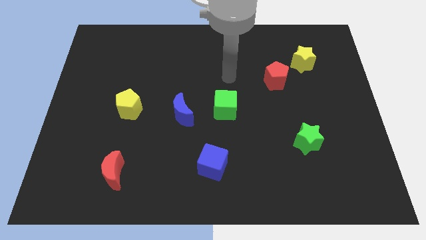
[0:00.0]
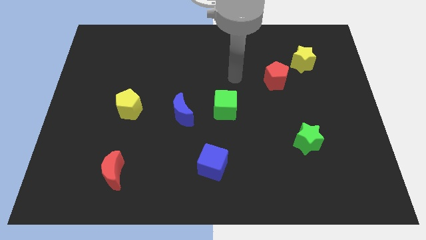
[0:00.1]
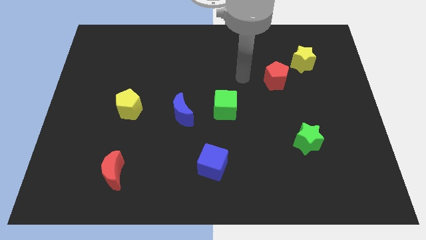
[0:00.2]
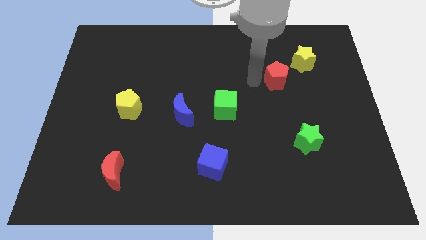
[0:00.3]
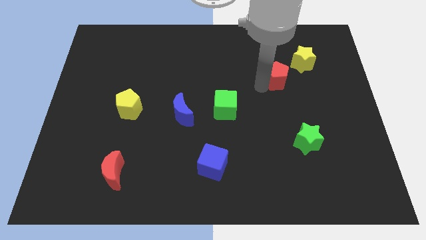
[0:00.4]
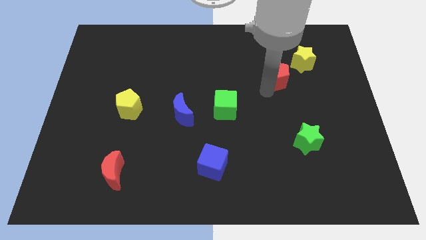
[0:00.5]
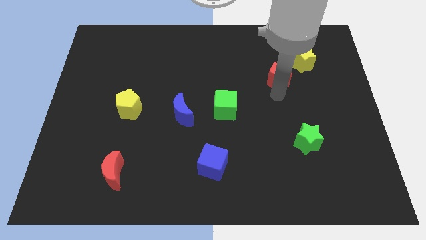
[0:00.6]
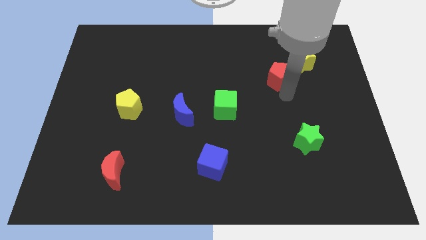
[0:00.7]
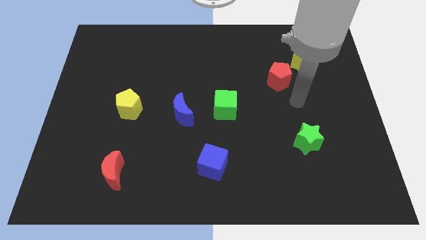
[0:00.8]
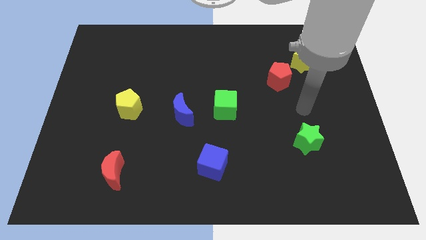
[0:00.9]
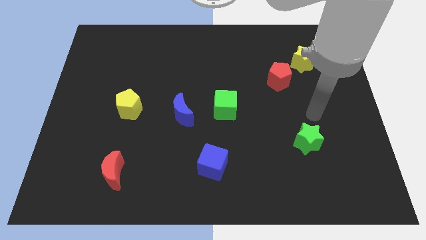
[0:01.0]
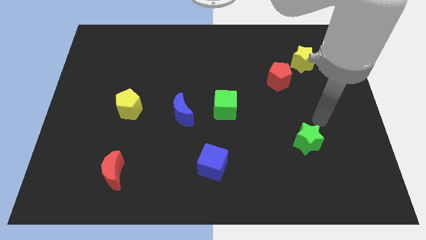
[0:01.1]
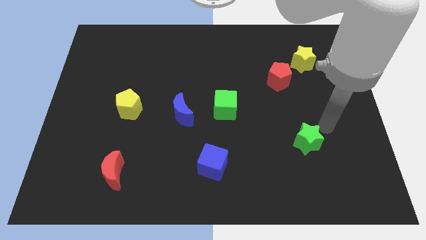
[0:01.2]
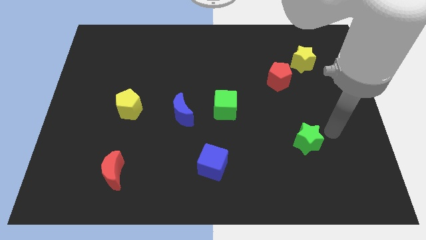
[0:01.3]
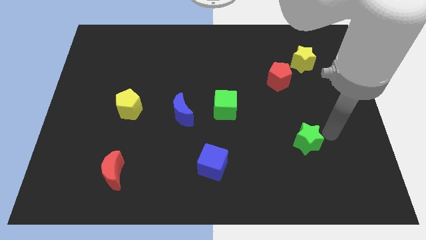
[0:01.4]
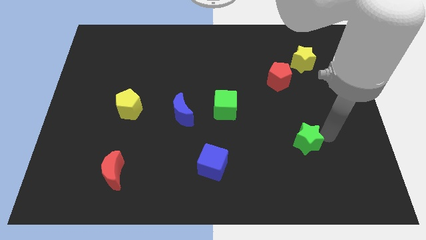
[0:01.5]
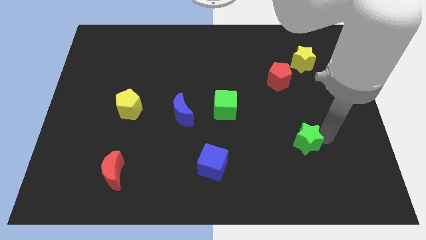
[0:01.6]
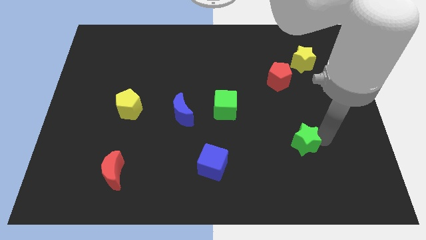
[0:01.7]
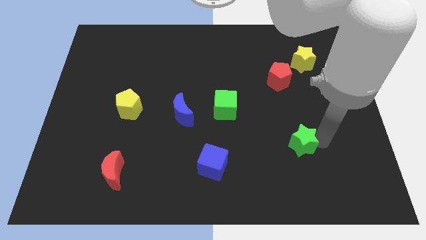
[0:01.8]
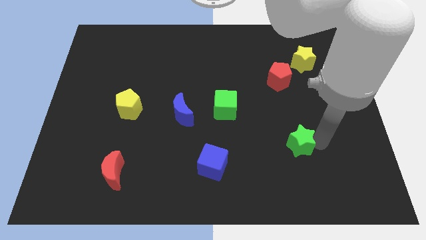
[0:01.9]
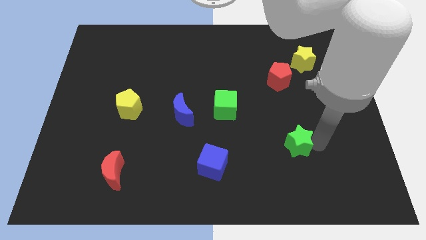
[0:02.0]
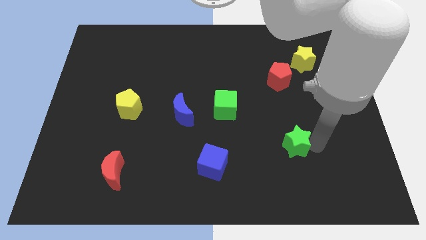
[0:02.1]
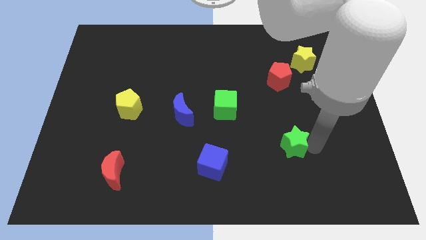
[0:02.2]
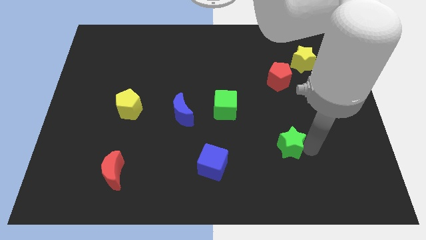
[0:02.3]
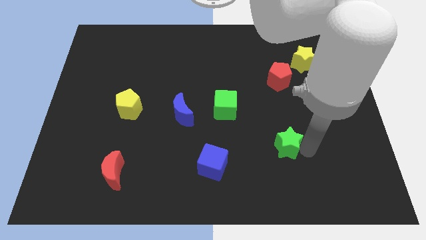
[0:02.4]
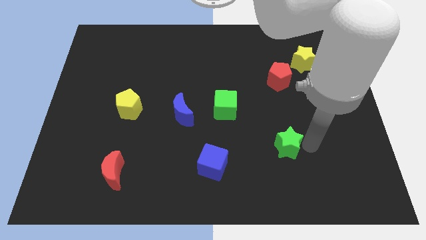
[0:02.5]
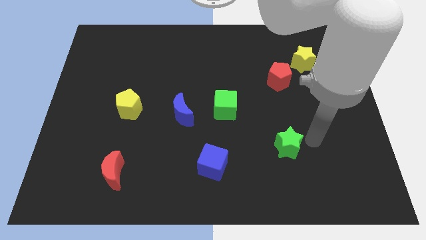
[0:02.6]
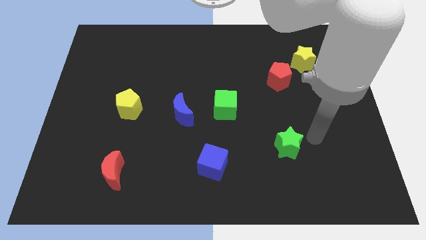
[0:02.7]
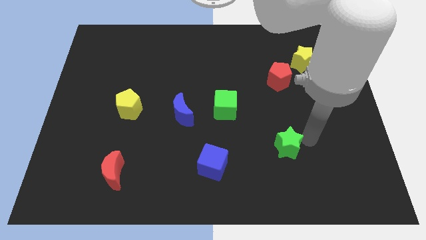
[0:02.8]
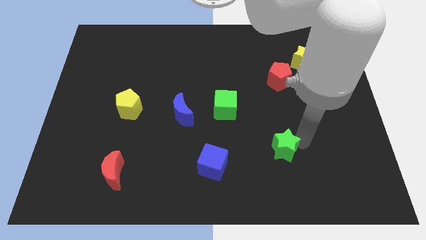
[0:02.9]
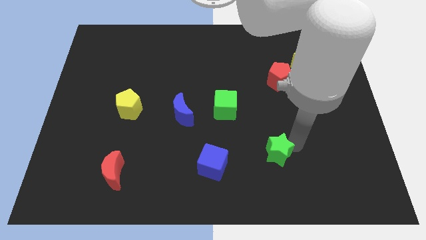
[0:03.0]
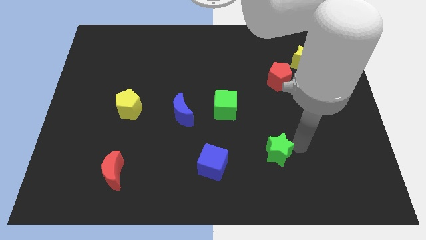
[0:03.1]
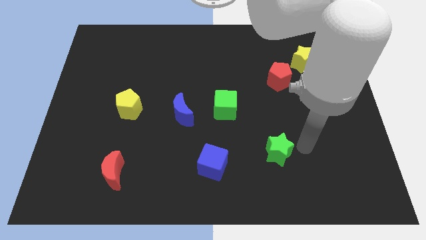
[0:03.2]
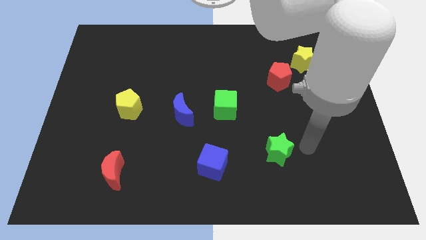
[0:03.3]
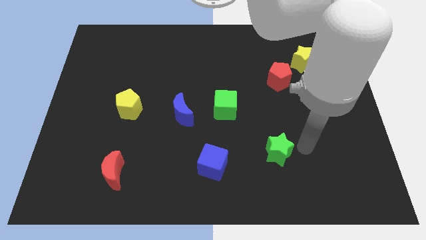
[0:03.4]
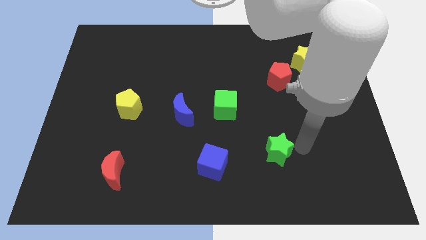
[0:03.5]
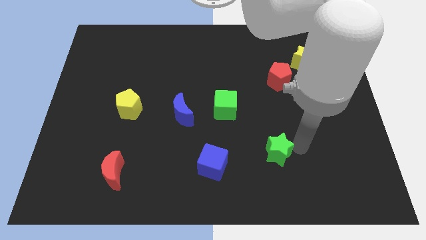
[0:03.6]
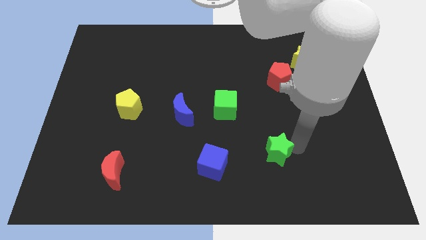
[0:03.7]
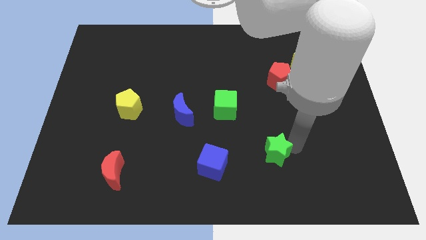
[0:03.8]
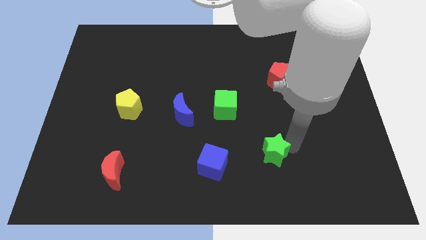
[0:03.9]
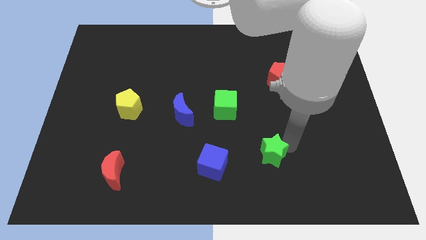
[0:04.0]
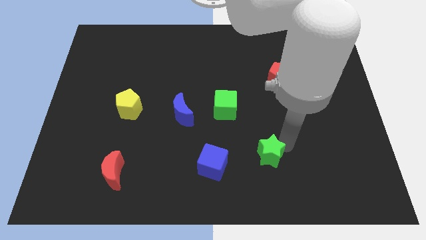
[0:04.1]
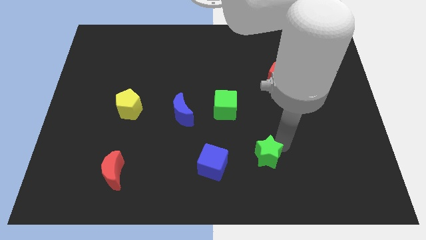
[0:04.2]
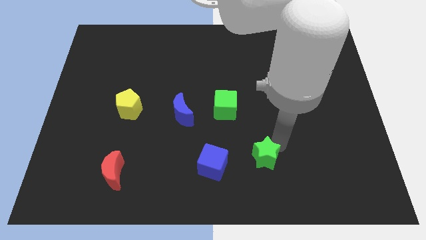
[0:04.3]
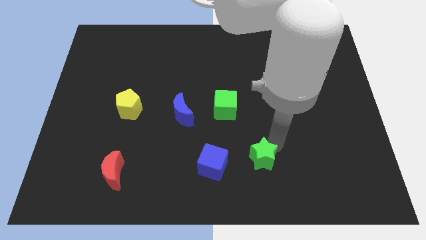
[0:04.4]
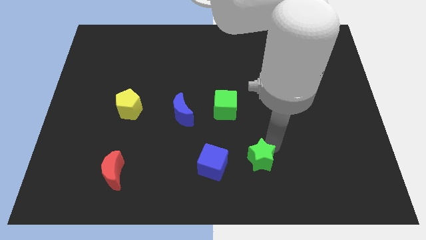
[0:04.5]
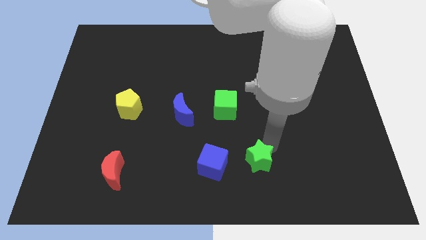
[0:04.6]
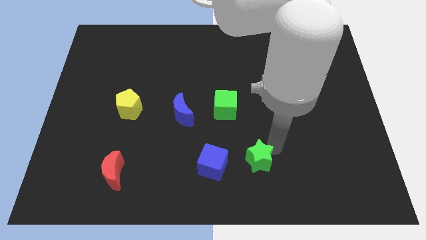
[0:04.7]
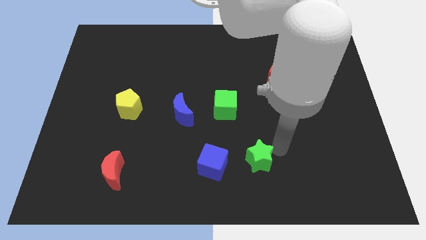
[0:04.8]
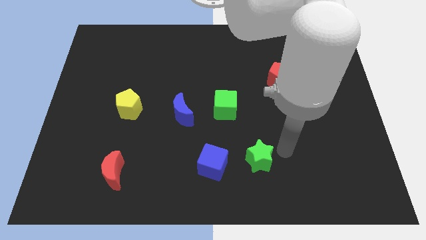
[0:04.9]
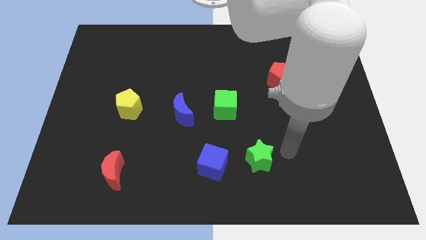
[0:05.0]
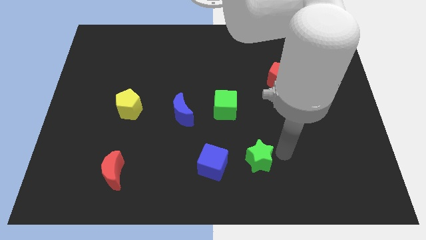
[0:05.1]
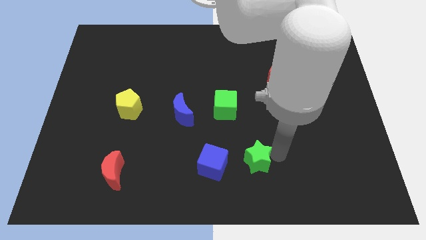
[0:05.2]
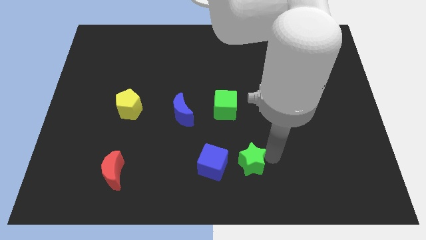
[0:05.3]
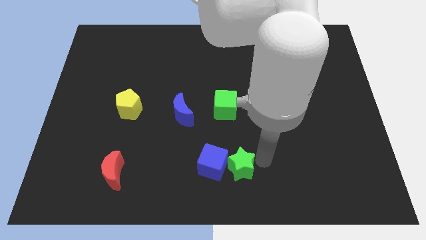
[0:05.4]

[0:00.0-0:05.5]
push the green star towards the blue cube

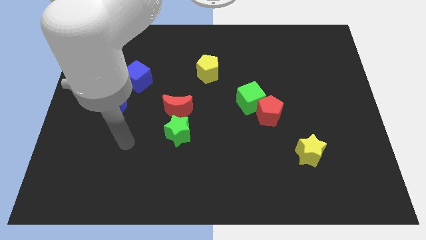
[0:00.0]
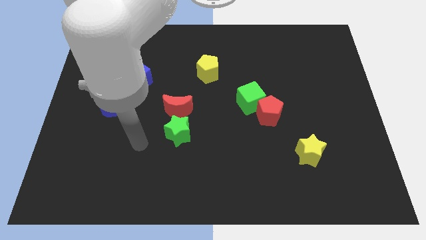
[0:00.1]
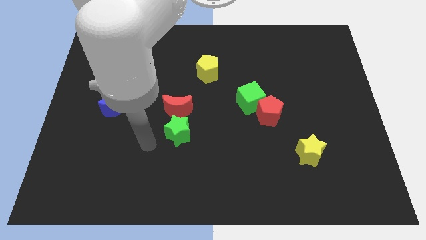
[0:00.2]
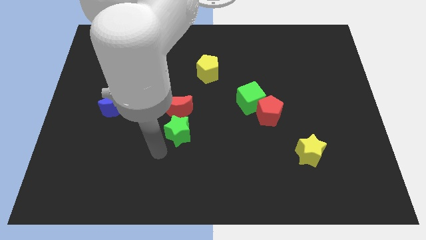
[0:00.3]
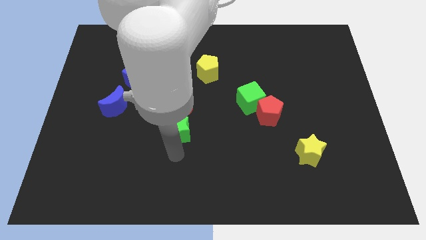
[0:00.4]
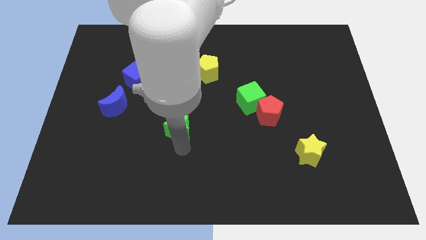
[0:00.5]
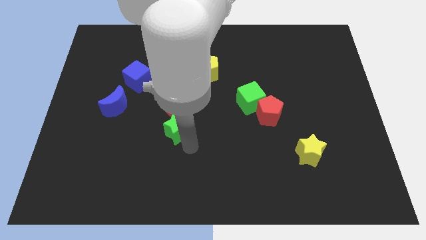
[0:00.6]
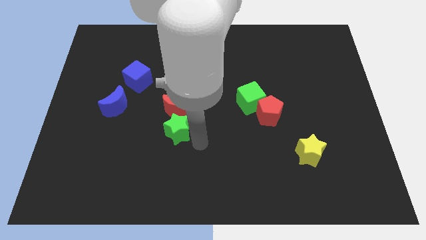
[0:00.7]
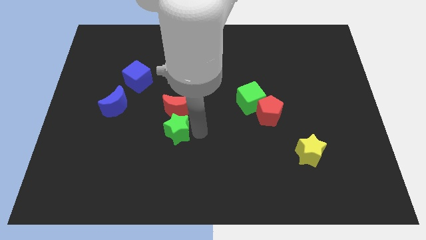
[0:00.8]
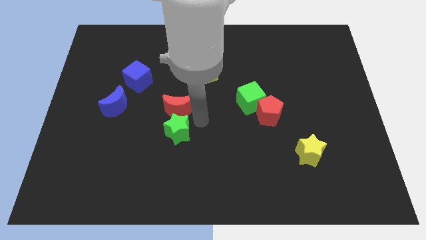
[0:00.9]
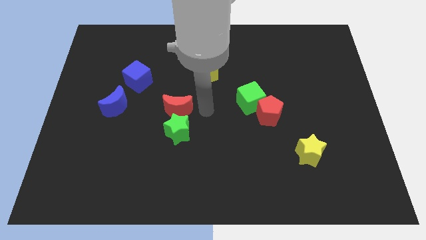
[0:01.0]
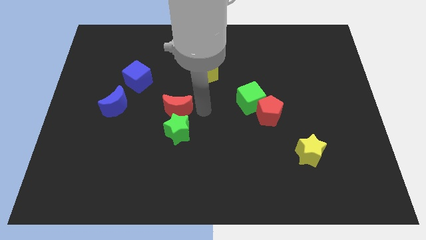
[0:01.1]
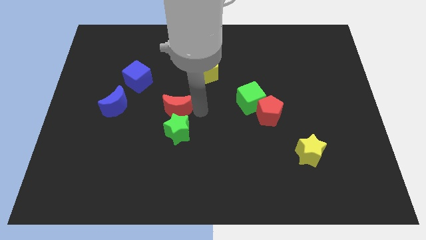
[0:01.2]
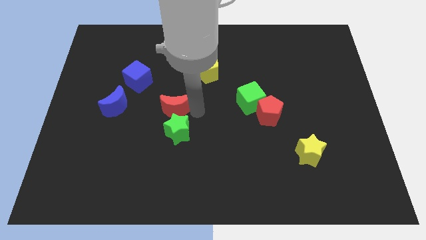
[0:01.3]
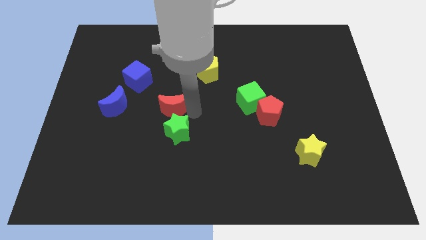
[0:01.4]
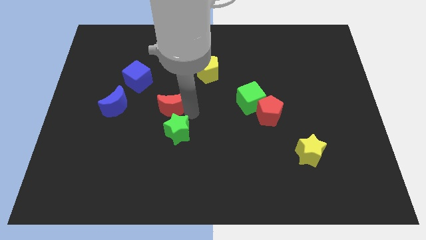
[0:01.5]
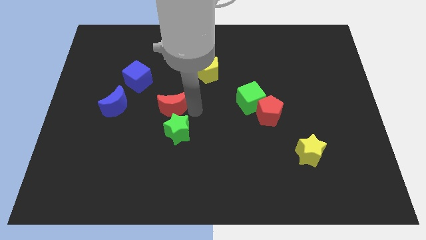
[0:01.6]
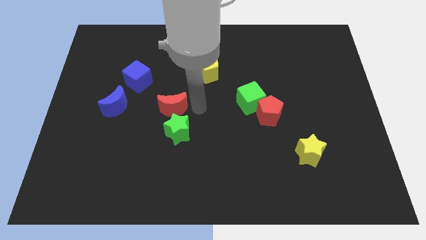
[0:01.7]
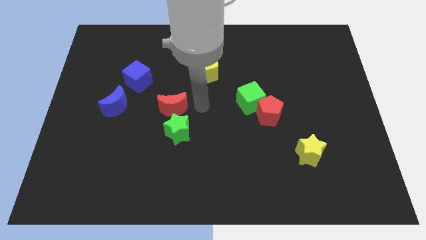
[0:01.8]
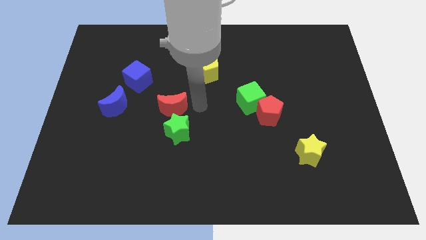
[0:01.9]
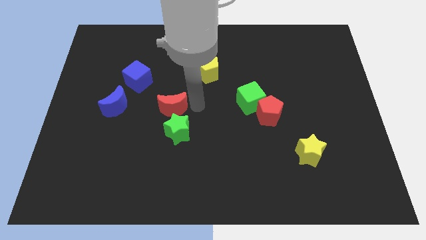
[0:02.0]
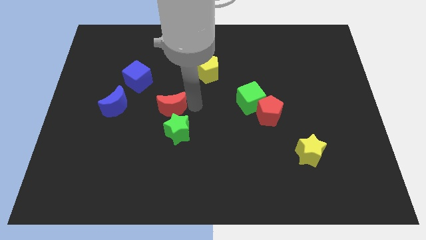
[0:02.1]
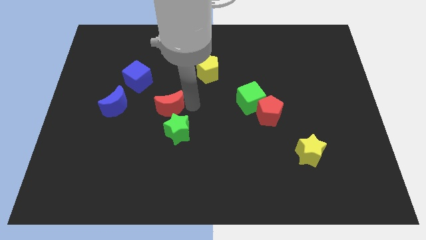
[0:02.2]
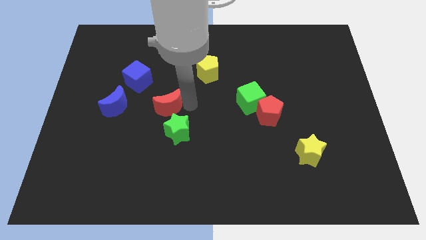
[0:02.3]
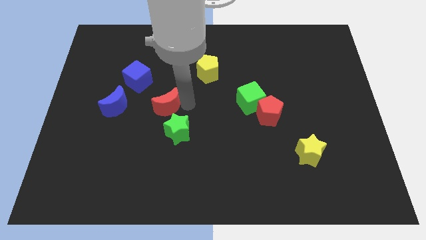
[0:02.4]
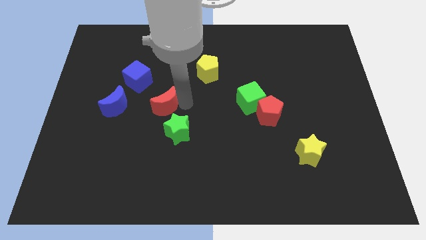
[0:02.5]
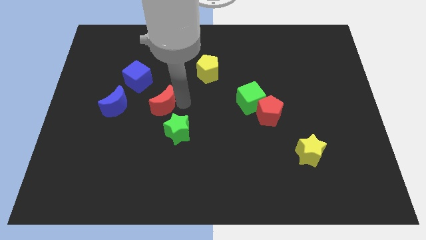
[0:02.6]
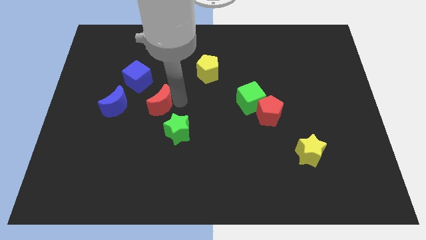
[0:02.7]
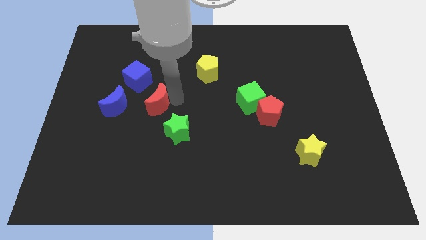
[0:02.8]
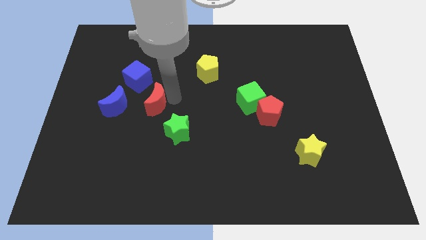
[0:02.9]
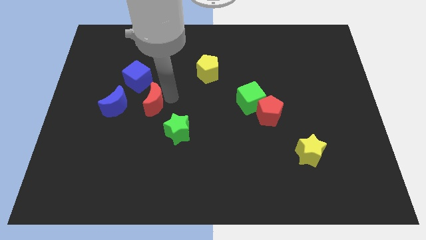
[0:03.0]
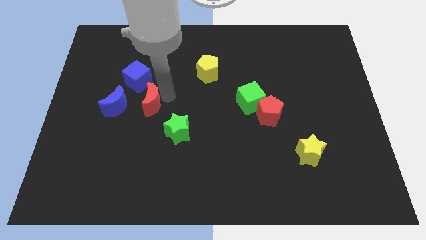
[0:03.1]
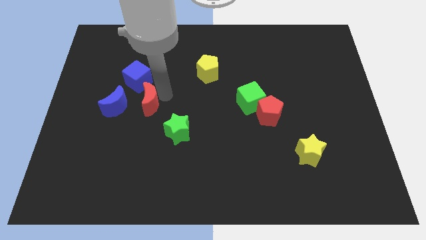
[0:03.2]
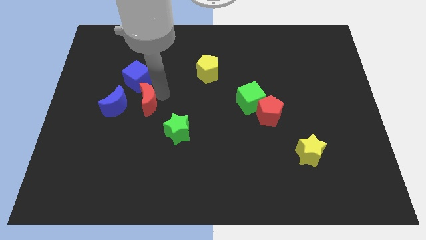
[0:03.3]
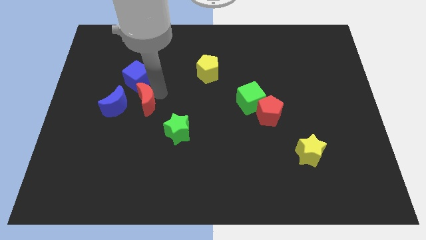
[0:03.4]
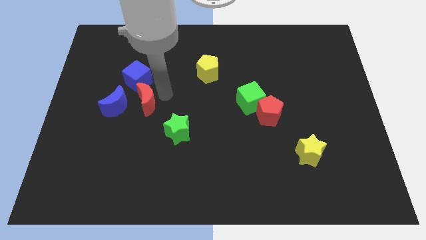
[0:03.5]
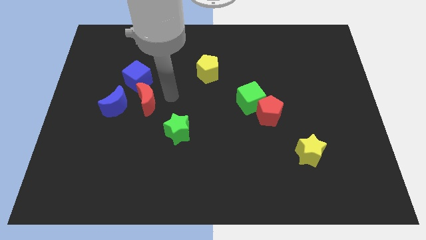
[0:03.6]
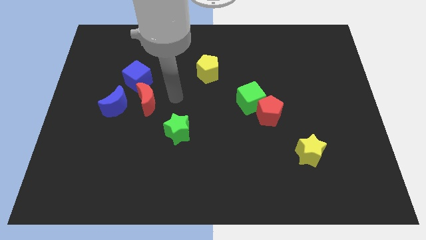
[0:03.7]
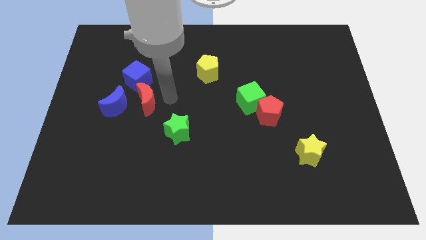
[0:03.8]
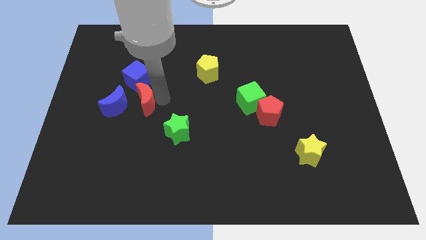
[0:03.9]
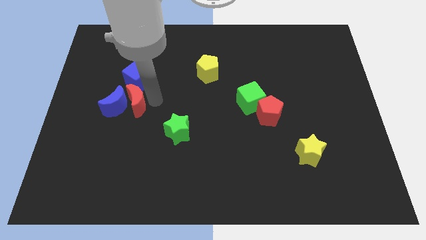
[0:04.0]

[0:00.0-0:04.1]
move the red moon next to the blue moon
